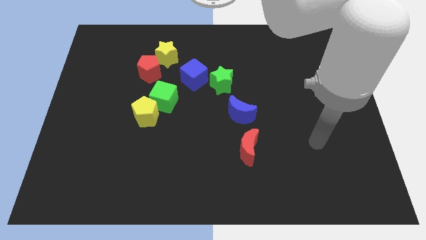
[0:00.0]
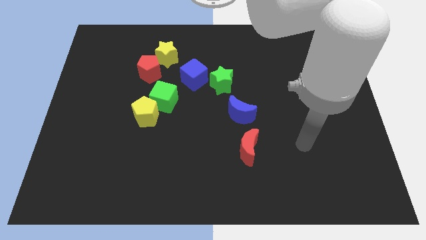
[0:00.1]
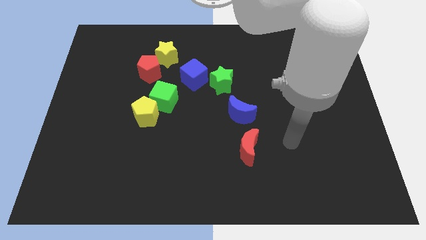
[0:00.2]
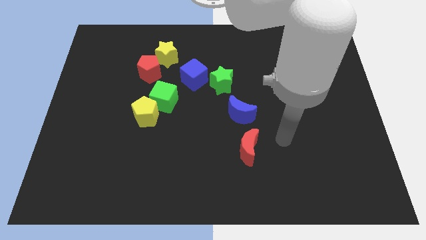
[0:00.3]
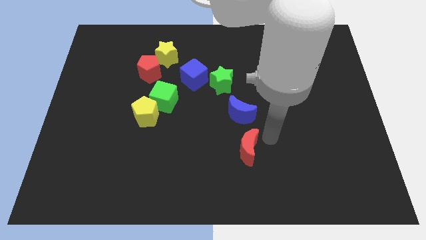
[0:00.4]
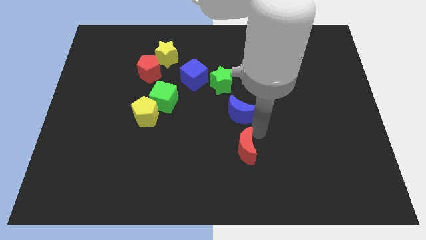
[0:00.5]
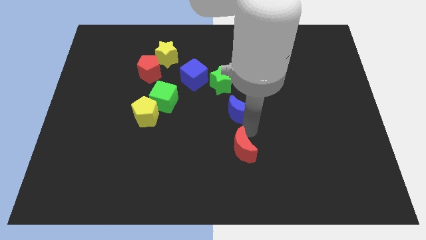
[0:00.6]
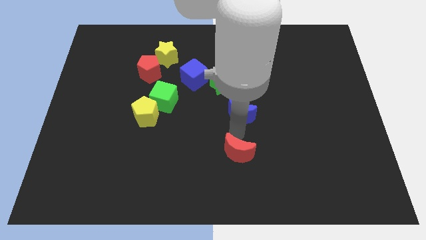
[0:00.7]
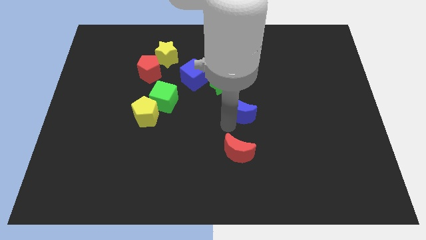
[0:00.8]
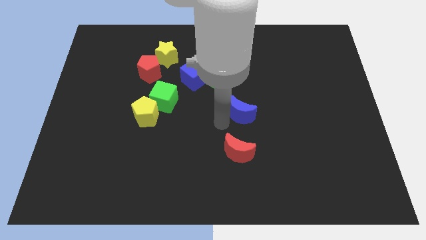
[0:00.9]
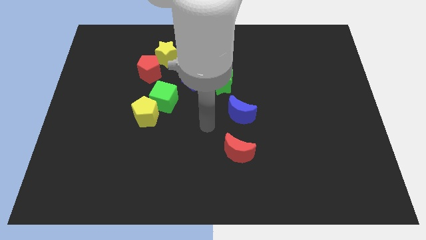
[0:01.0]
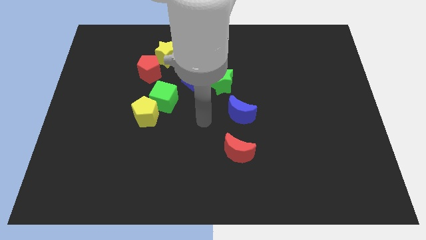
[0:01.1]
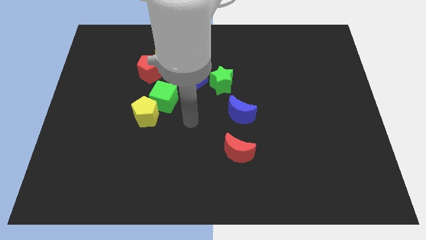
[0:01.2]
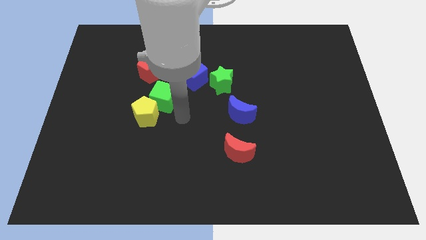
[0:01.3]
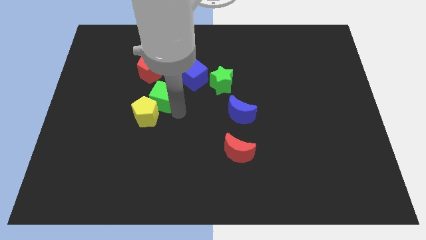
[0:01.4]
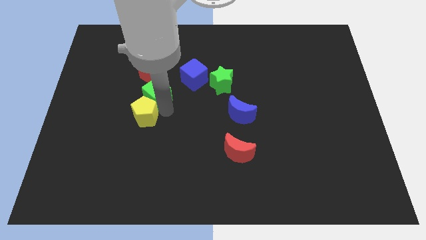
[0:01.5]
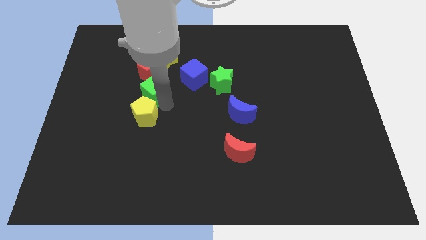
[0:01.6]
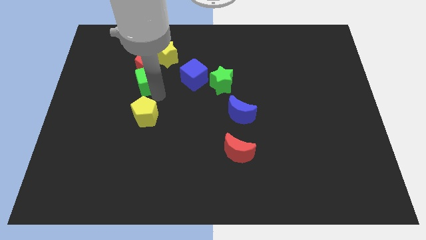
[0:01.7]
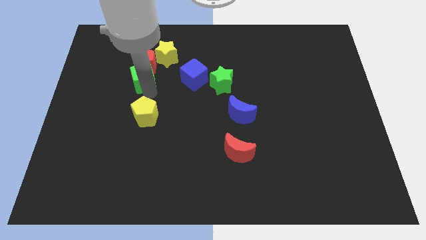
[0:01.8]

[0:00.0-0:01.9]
move the yellow pentagon away from the green cube

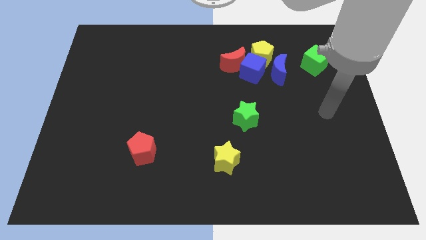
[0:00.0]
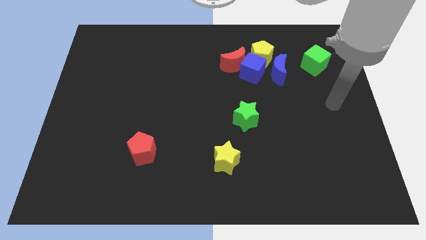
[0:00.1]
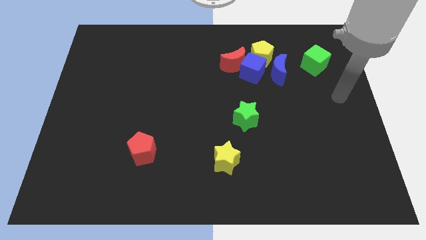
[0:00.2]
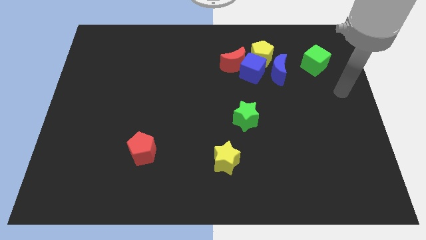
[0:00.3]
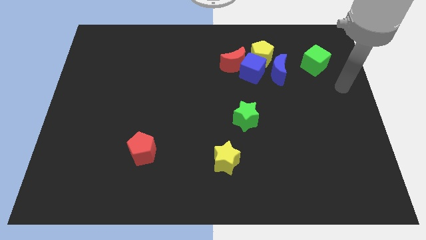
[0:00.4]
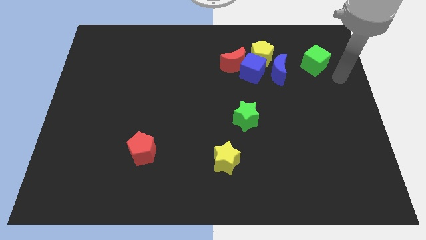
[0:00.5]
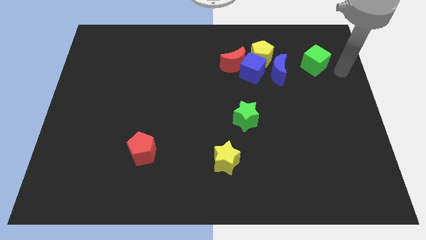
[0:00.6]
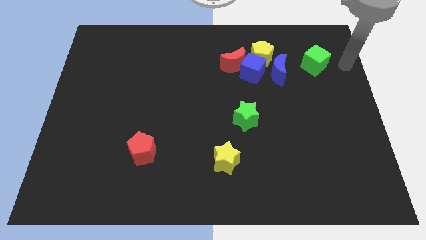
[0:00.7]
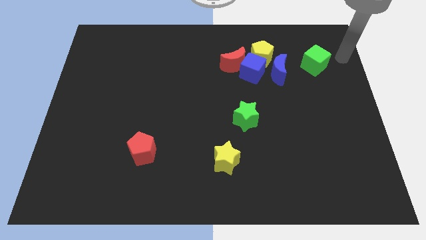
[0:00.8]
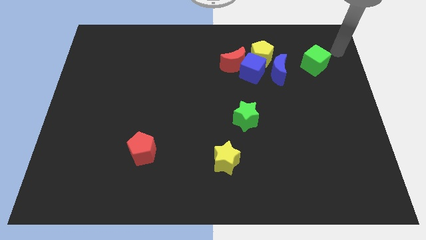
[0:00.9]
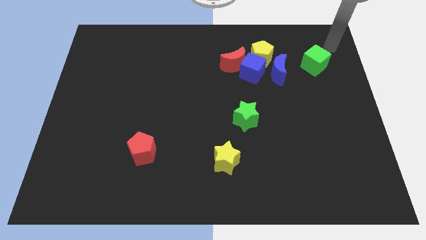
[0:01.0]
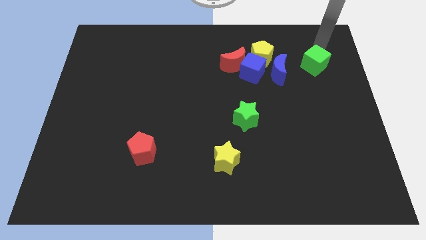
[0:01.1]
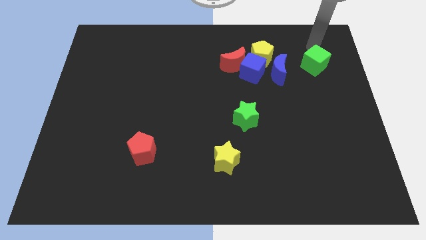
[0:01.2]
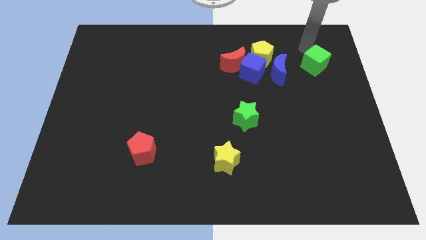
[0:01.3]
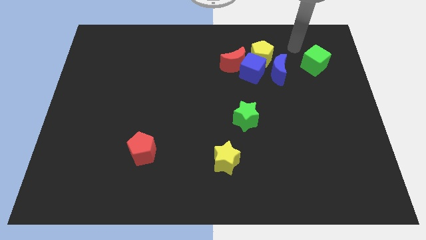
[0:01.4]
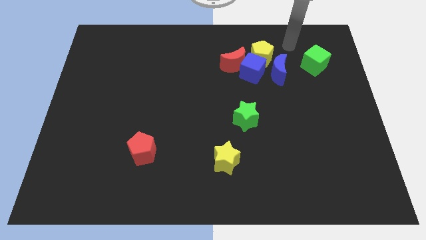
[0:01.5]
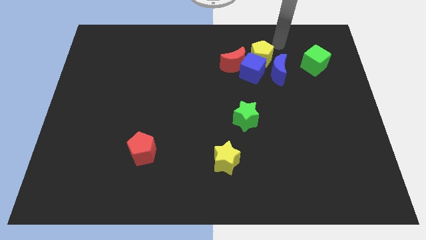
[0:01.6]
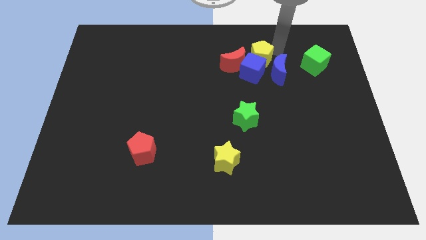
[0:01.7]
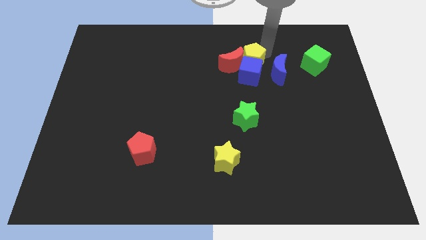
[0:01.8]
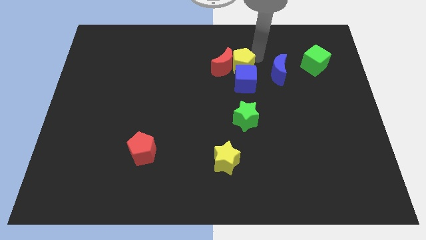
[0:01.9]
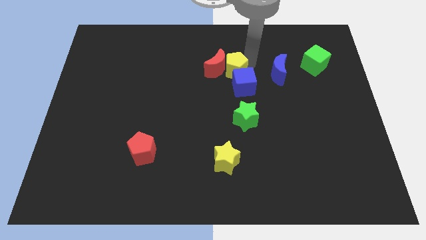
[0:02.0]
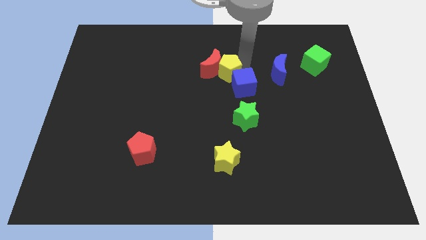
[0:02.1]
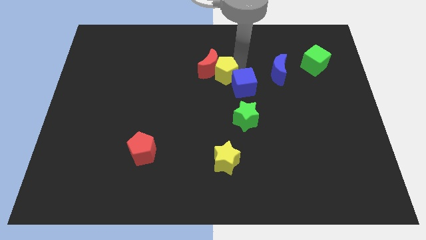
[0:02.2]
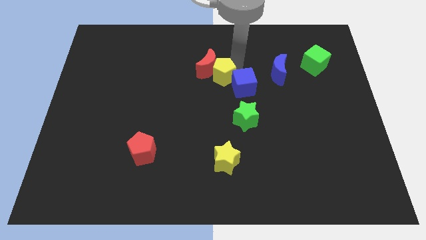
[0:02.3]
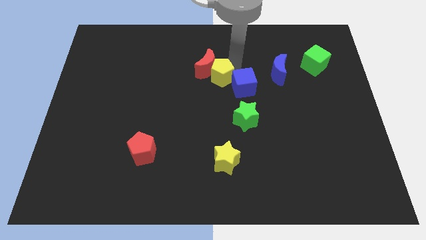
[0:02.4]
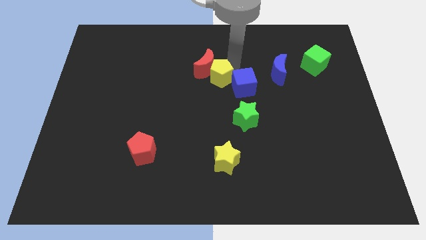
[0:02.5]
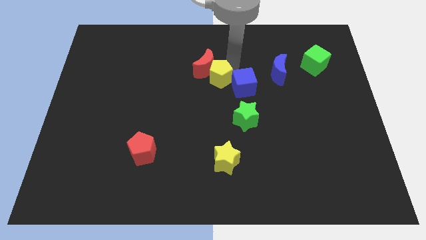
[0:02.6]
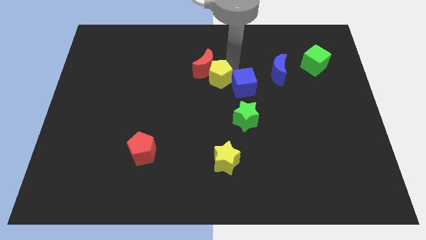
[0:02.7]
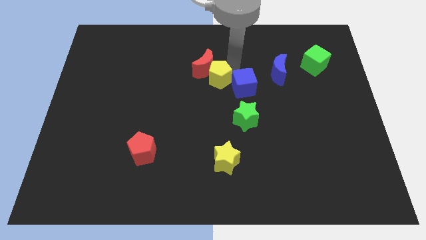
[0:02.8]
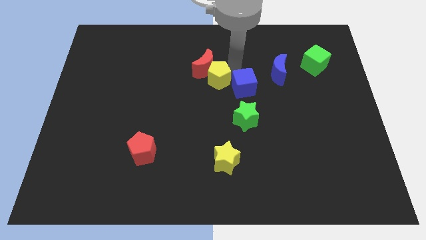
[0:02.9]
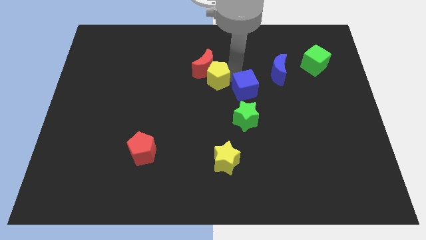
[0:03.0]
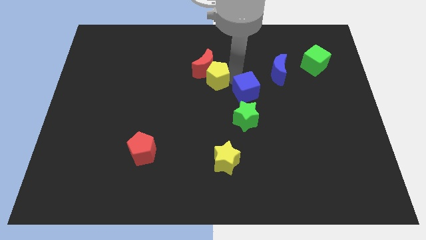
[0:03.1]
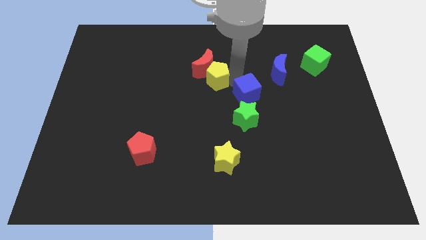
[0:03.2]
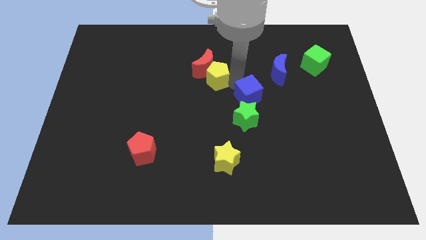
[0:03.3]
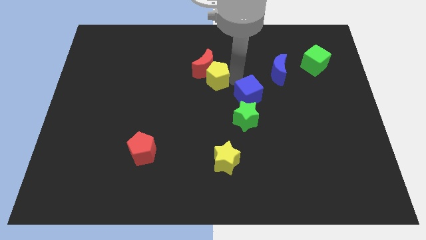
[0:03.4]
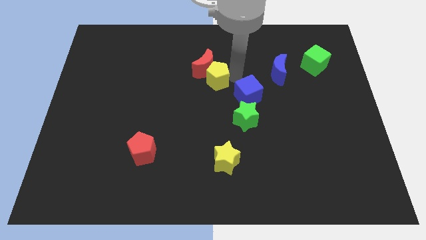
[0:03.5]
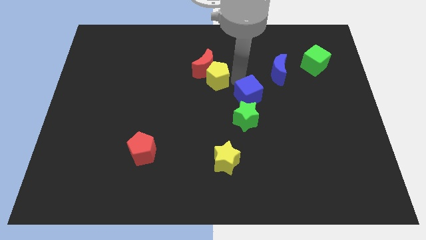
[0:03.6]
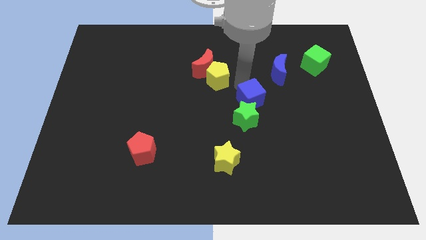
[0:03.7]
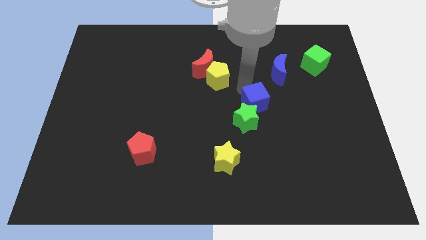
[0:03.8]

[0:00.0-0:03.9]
pull the blue cube apart from the group of blocks

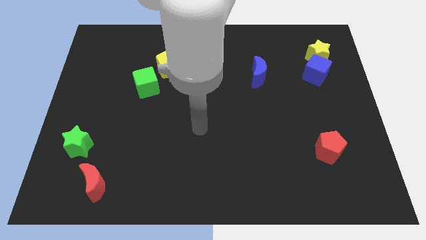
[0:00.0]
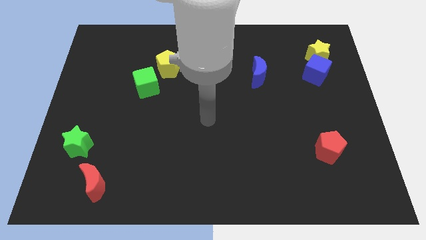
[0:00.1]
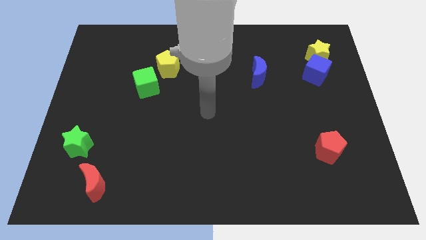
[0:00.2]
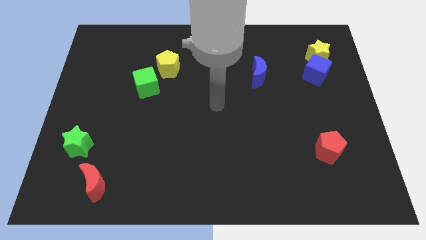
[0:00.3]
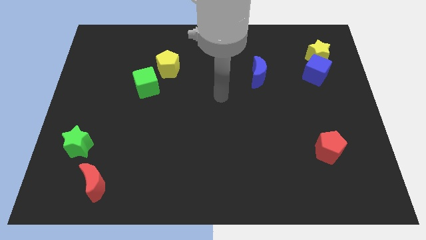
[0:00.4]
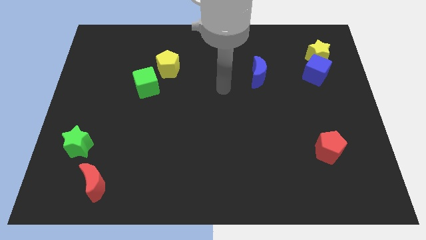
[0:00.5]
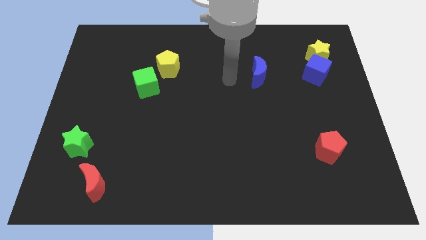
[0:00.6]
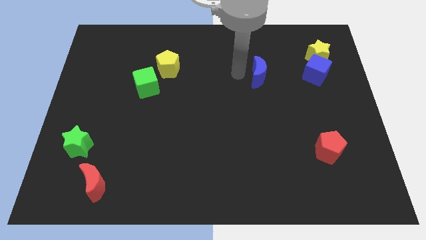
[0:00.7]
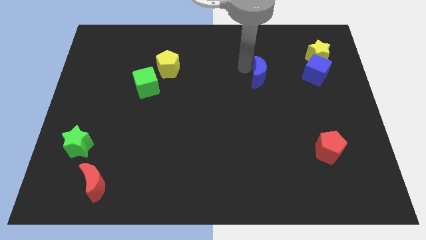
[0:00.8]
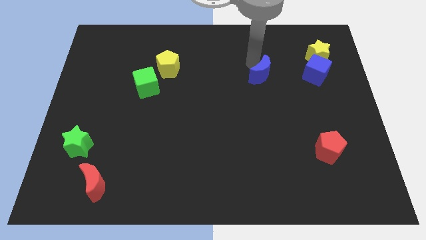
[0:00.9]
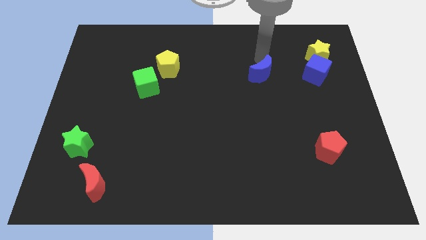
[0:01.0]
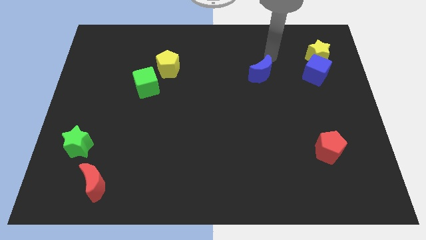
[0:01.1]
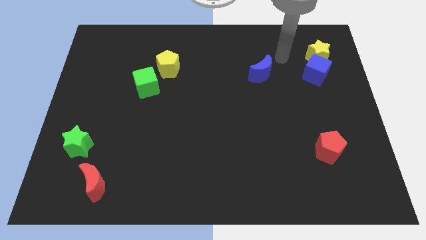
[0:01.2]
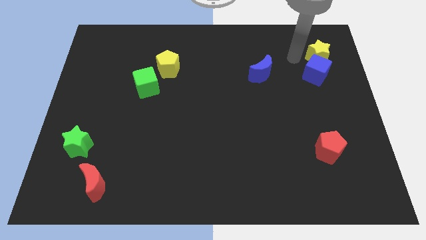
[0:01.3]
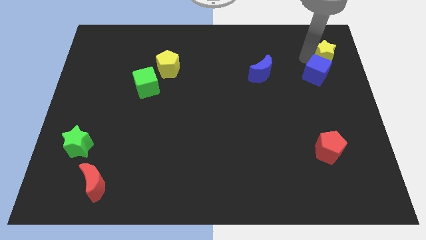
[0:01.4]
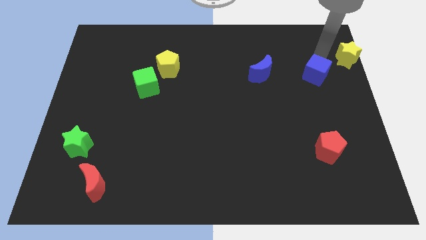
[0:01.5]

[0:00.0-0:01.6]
move the blue cube away from the yellow star

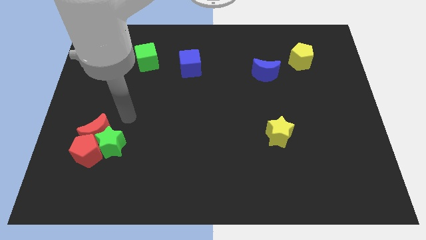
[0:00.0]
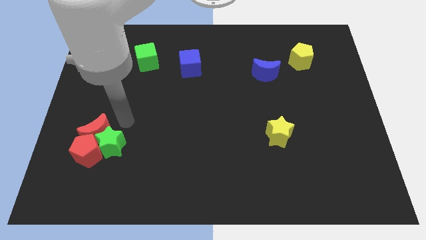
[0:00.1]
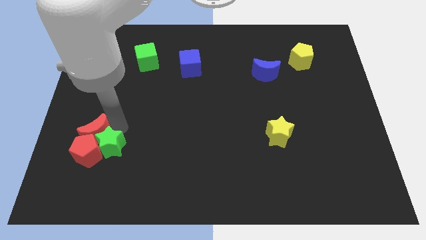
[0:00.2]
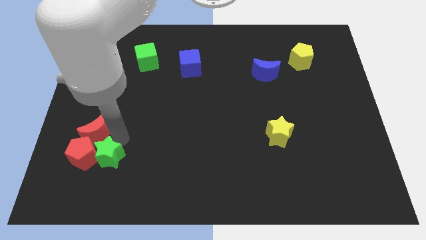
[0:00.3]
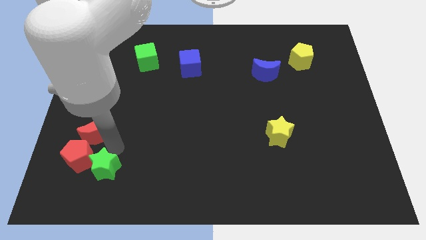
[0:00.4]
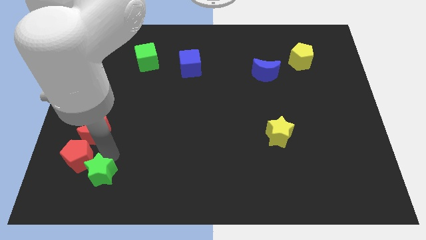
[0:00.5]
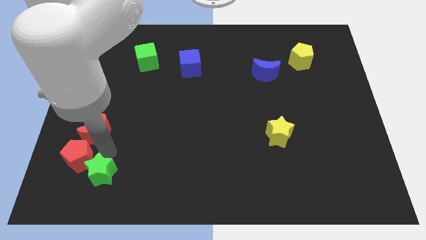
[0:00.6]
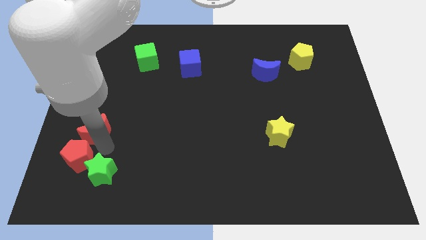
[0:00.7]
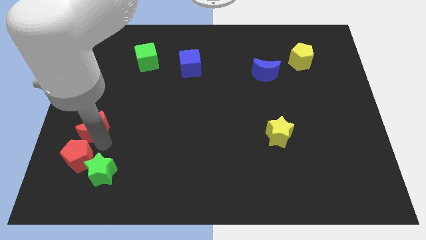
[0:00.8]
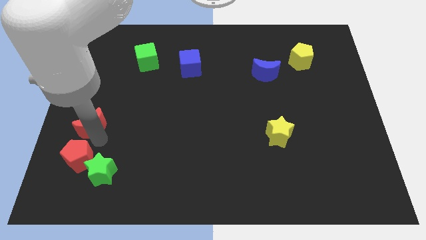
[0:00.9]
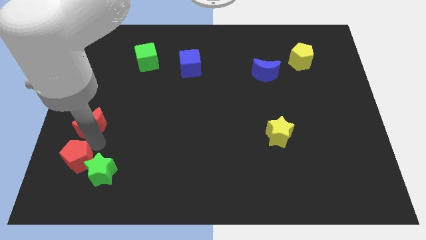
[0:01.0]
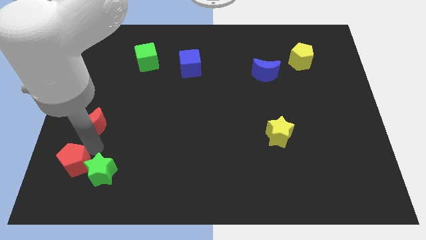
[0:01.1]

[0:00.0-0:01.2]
move the red moon away from the green star and red pentagon

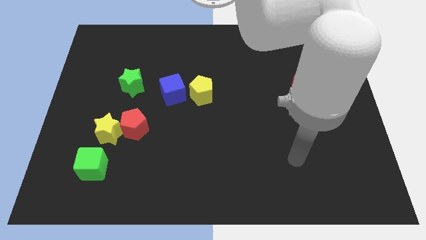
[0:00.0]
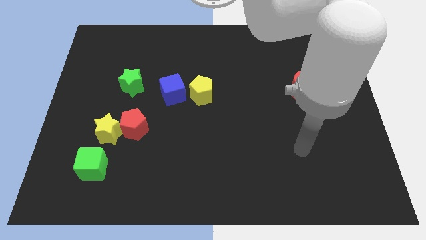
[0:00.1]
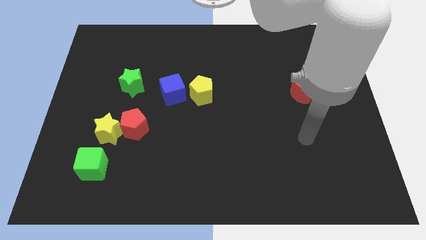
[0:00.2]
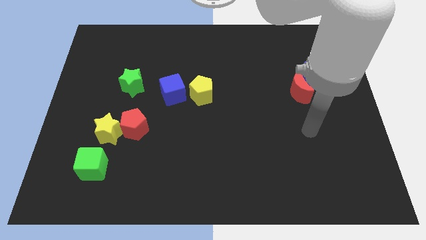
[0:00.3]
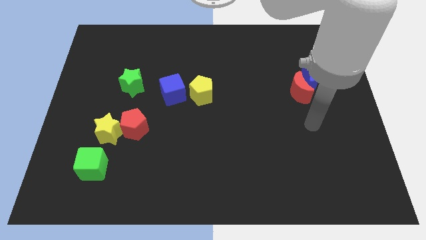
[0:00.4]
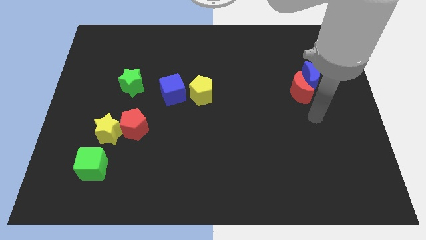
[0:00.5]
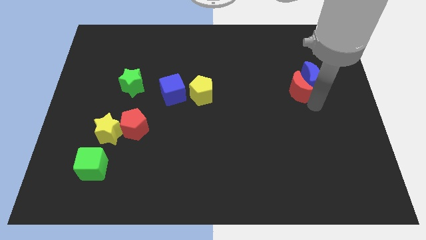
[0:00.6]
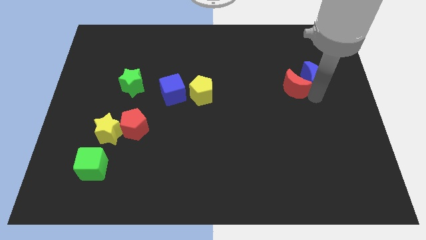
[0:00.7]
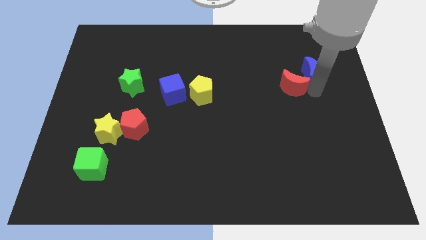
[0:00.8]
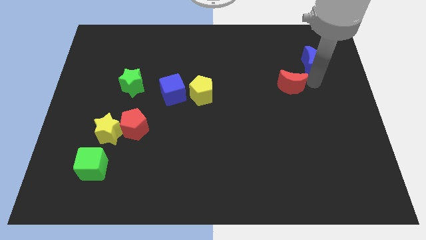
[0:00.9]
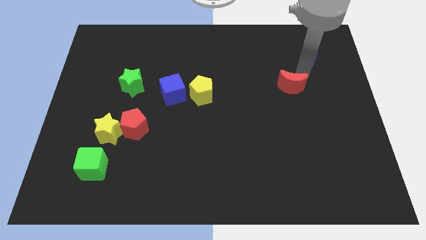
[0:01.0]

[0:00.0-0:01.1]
move the red moon away from the blue moon
